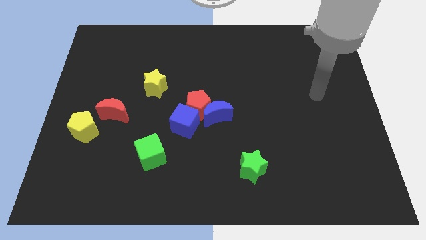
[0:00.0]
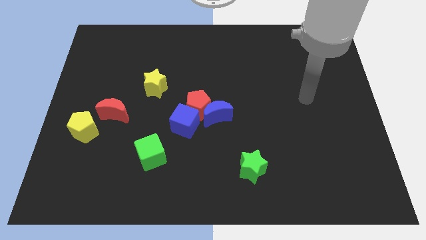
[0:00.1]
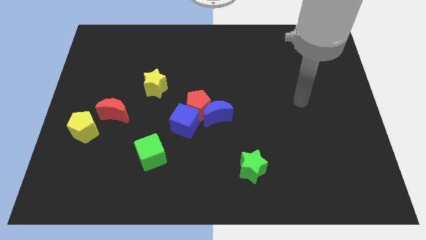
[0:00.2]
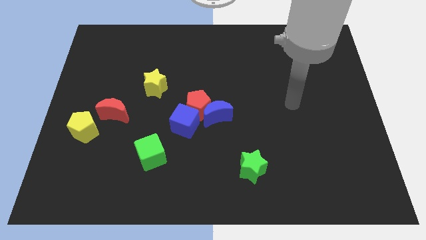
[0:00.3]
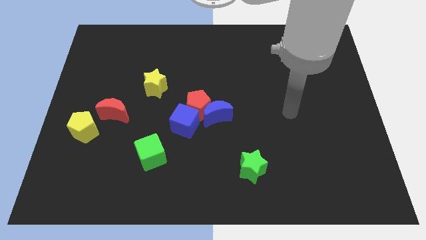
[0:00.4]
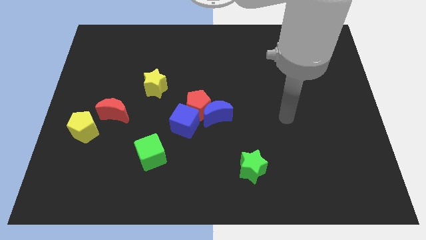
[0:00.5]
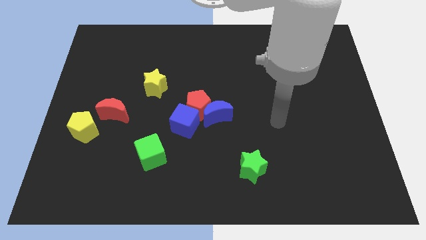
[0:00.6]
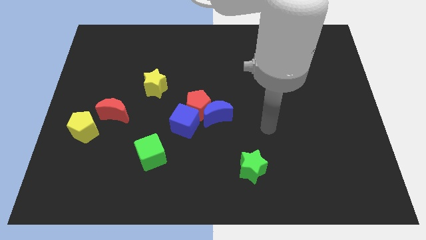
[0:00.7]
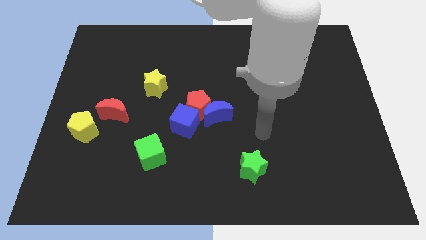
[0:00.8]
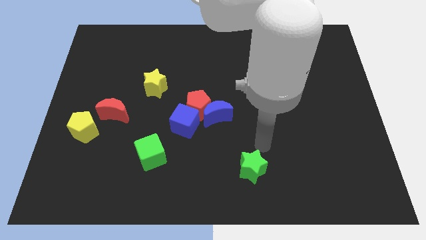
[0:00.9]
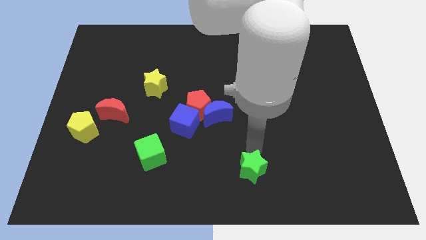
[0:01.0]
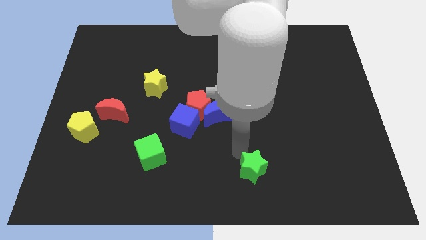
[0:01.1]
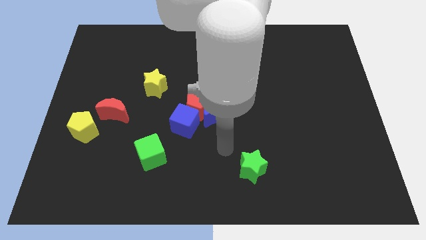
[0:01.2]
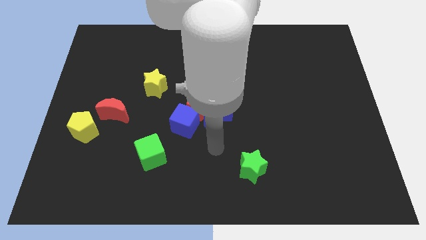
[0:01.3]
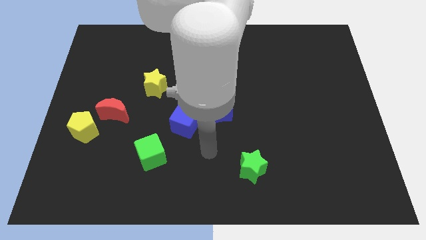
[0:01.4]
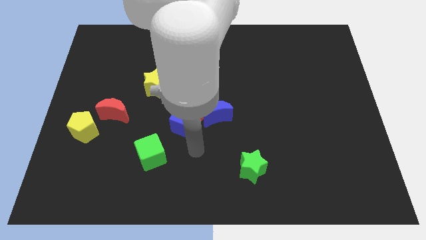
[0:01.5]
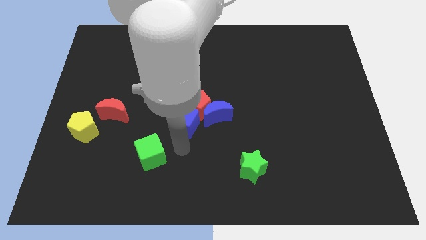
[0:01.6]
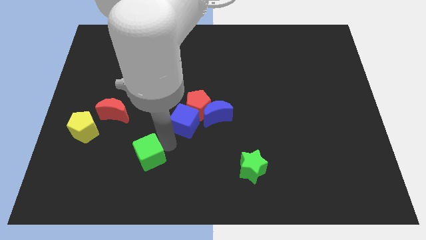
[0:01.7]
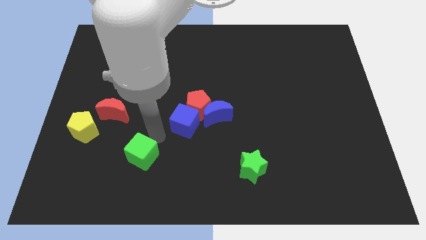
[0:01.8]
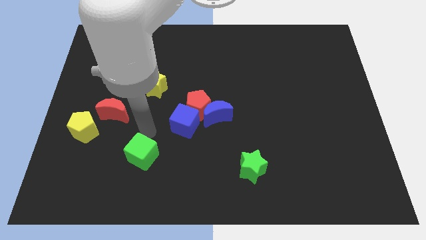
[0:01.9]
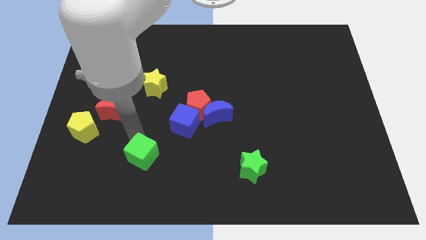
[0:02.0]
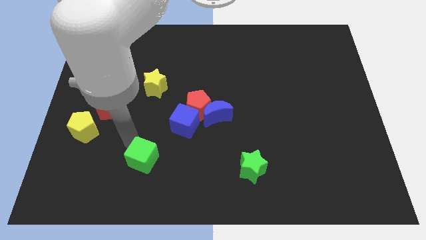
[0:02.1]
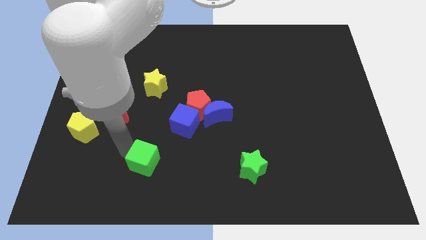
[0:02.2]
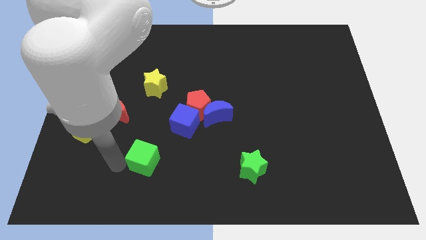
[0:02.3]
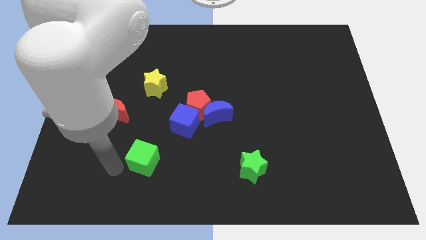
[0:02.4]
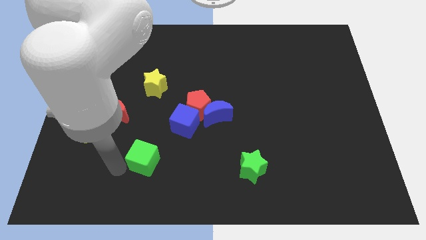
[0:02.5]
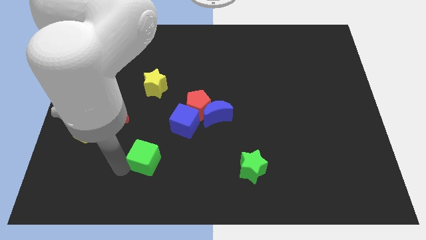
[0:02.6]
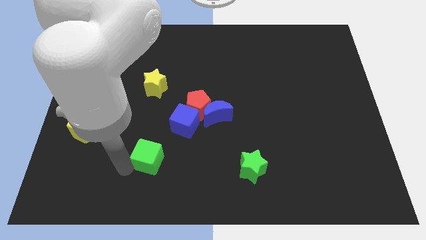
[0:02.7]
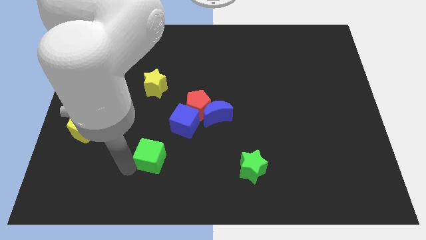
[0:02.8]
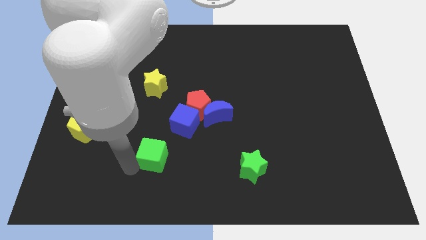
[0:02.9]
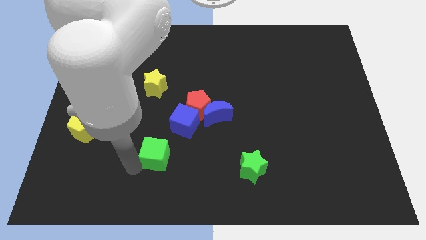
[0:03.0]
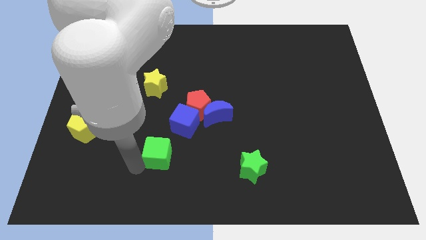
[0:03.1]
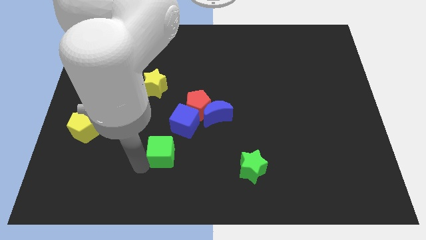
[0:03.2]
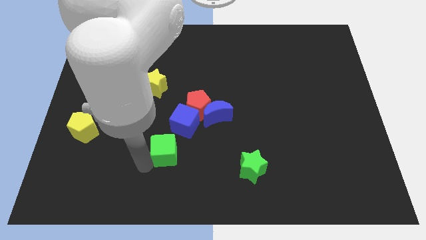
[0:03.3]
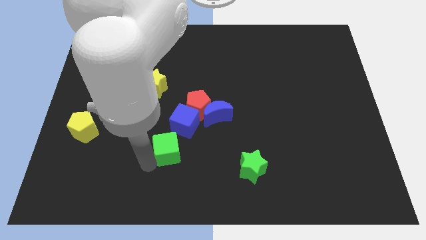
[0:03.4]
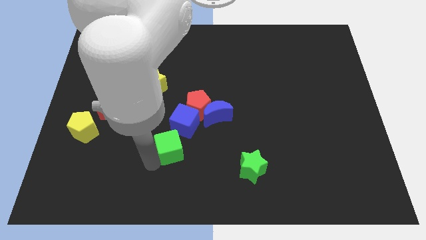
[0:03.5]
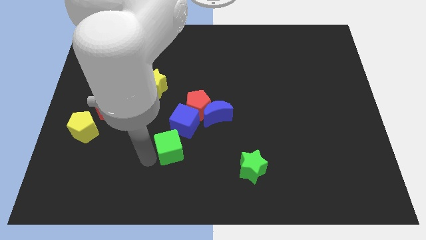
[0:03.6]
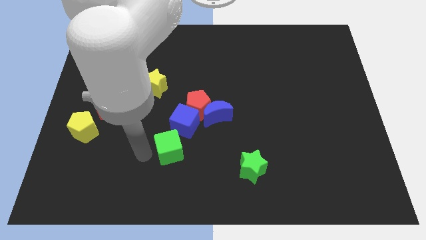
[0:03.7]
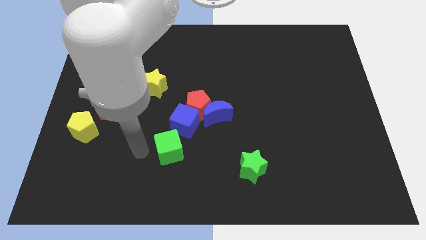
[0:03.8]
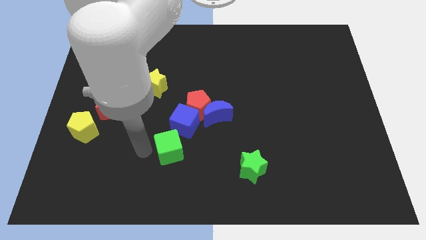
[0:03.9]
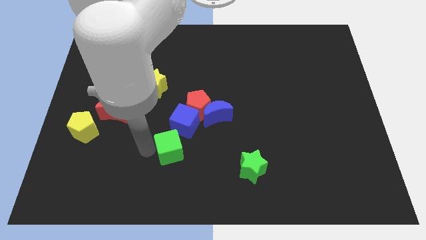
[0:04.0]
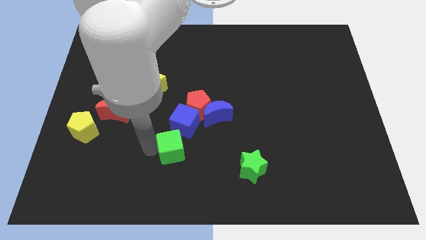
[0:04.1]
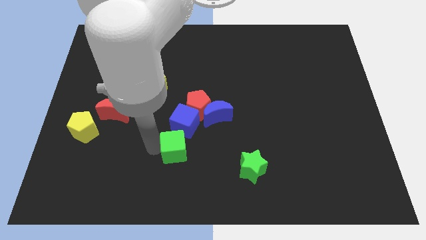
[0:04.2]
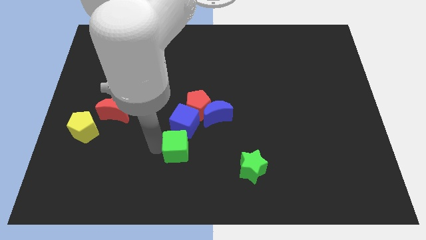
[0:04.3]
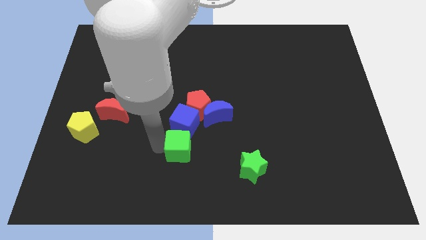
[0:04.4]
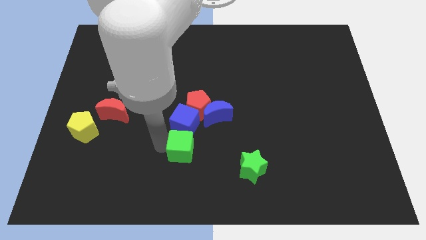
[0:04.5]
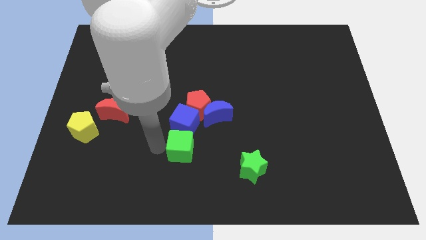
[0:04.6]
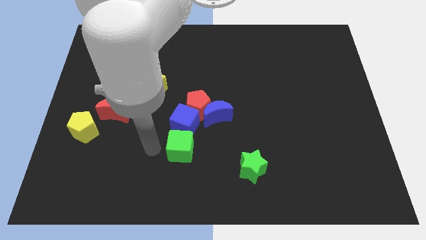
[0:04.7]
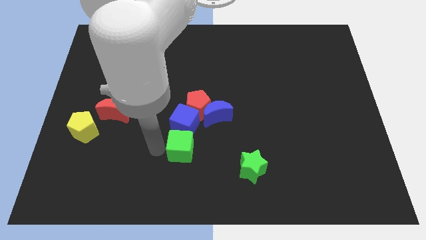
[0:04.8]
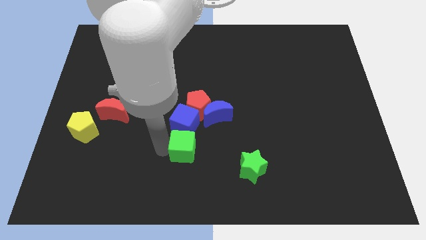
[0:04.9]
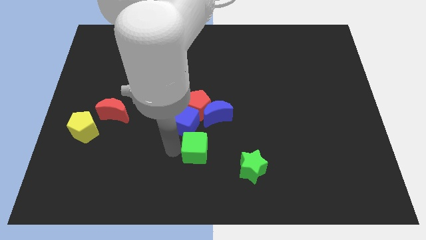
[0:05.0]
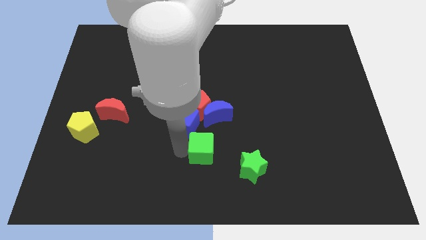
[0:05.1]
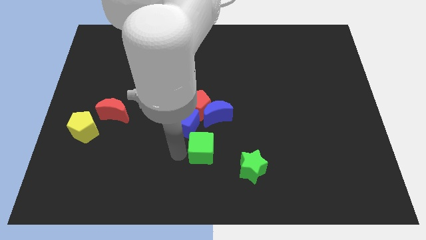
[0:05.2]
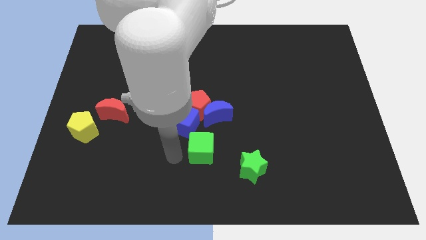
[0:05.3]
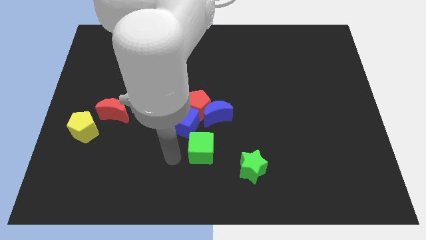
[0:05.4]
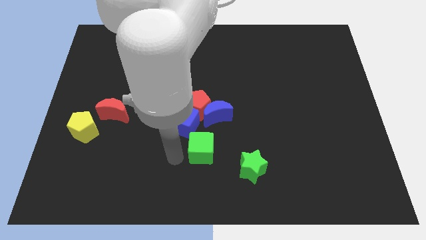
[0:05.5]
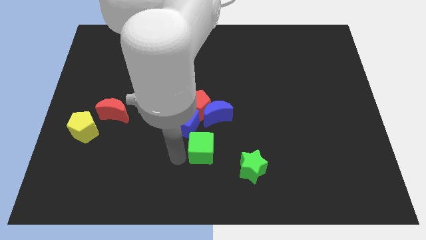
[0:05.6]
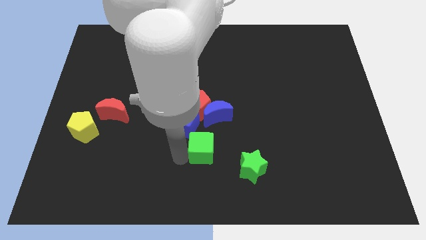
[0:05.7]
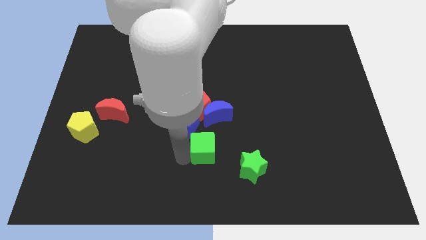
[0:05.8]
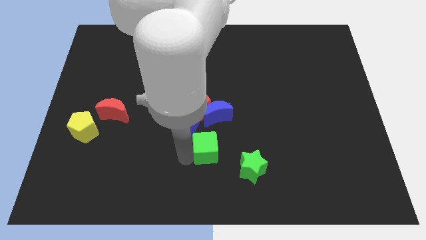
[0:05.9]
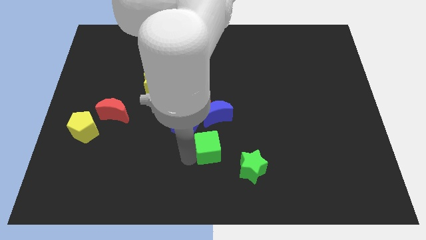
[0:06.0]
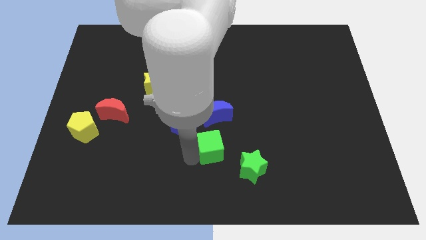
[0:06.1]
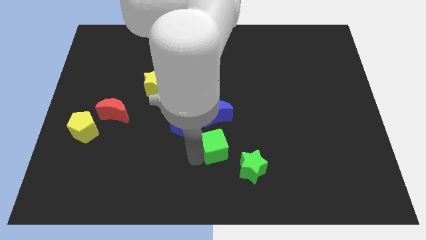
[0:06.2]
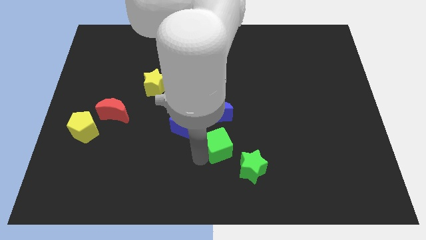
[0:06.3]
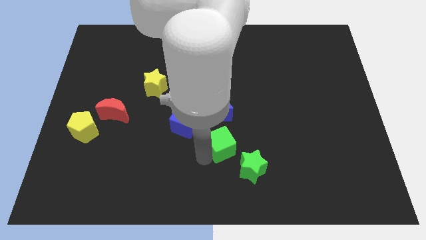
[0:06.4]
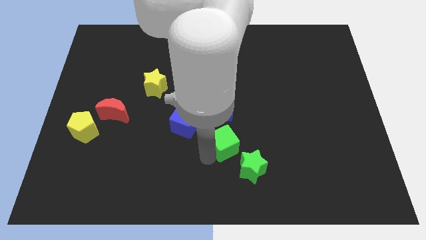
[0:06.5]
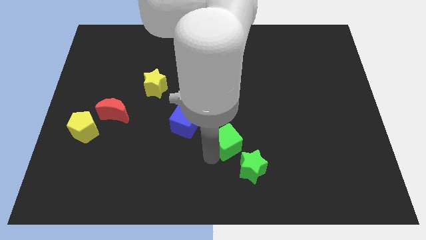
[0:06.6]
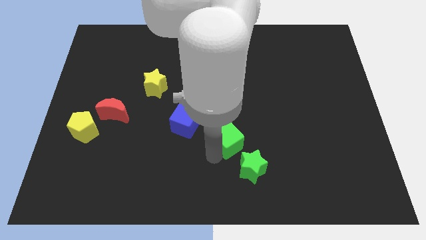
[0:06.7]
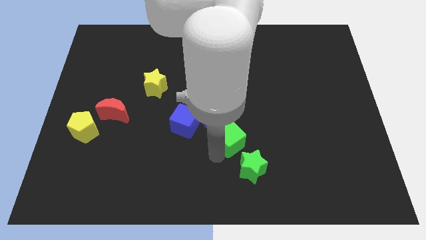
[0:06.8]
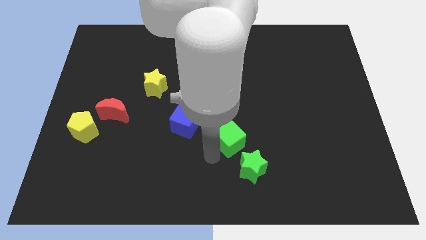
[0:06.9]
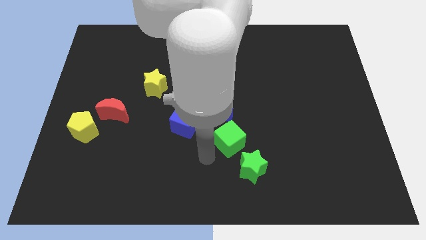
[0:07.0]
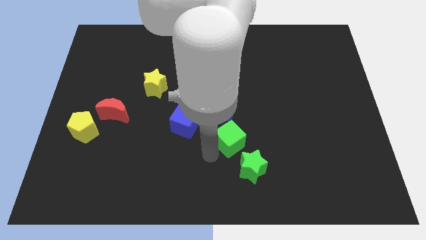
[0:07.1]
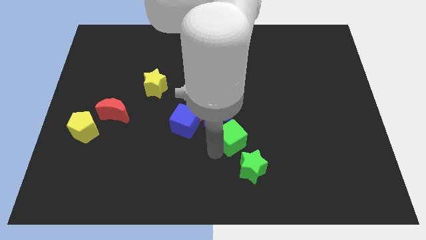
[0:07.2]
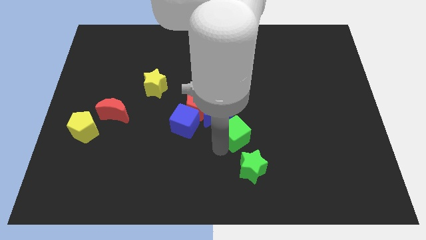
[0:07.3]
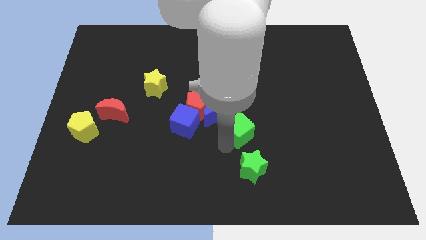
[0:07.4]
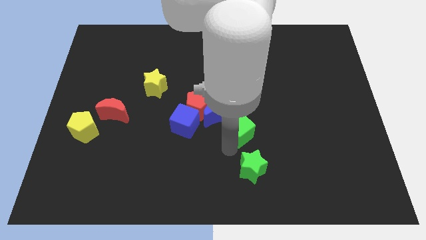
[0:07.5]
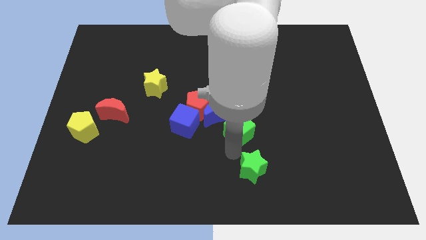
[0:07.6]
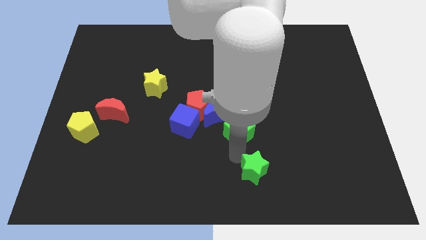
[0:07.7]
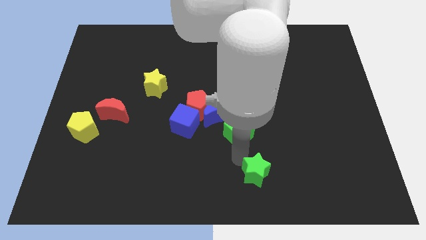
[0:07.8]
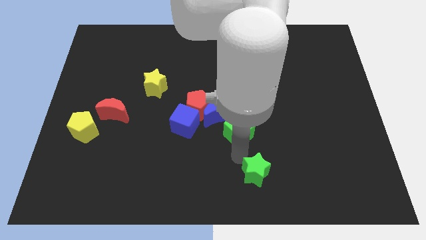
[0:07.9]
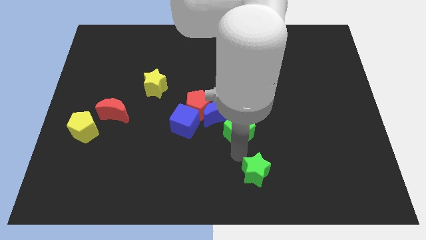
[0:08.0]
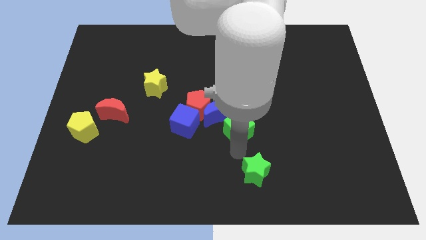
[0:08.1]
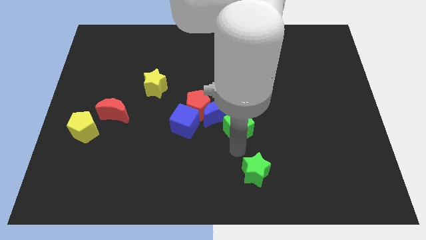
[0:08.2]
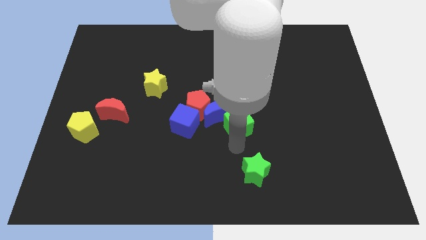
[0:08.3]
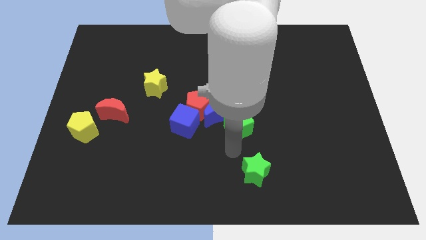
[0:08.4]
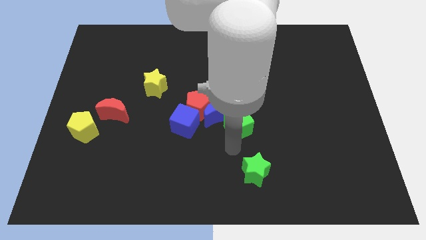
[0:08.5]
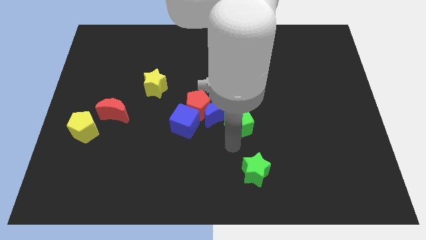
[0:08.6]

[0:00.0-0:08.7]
push the green cube to the right side of the red pentagon
